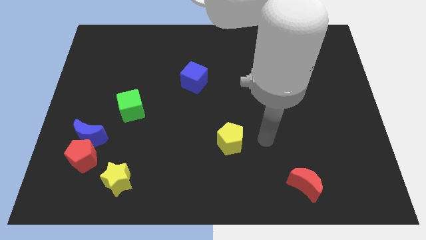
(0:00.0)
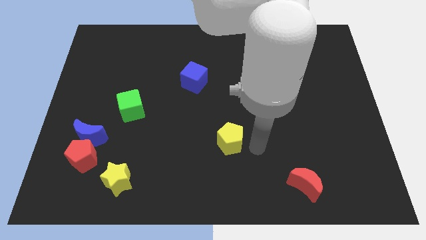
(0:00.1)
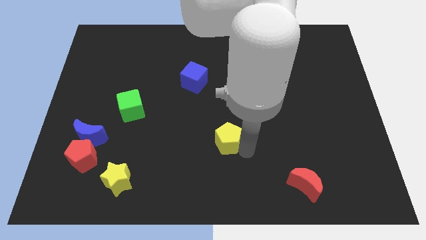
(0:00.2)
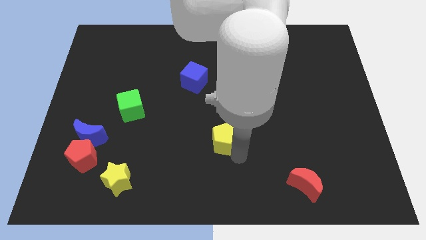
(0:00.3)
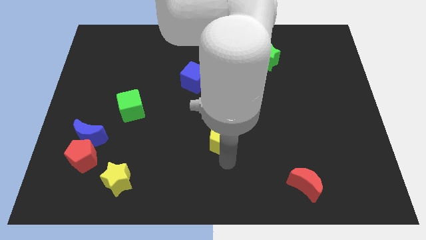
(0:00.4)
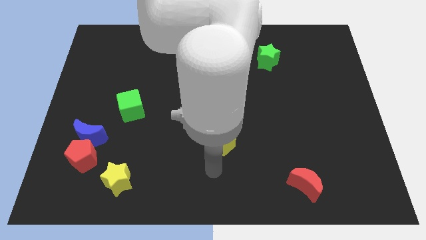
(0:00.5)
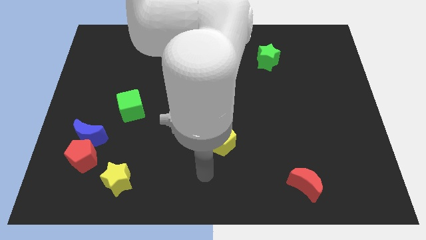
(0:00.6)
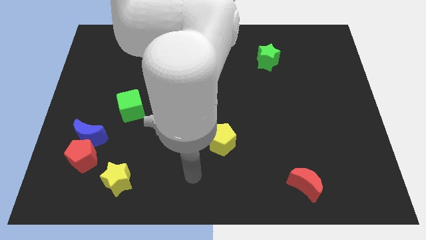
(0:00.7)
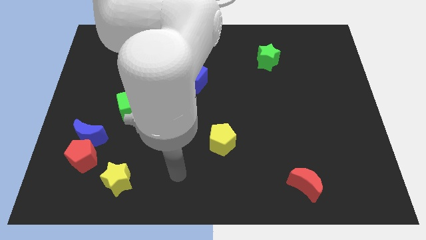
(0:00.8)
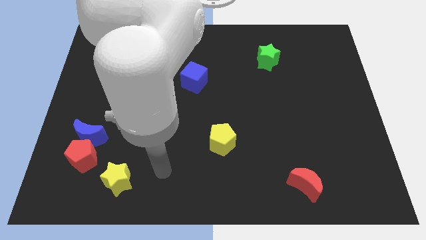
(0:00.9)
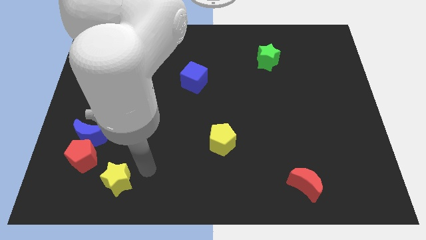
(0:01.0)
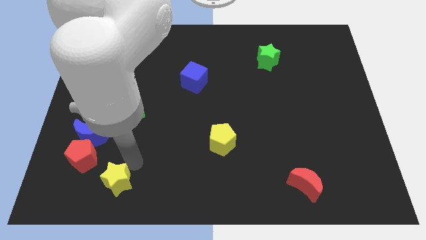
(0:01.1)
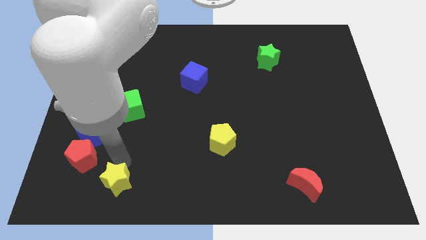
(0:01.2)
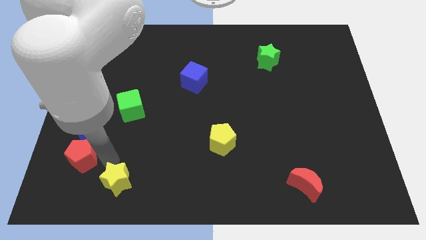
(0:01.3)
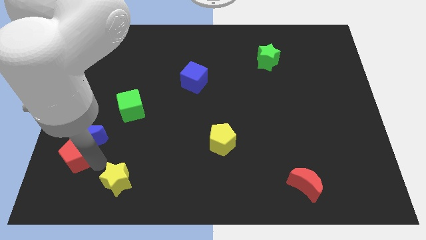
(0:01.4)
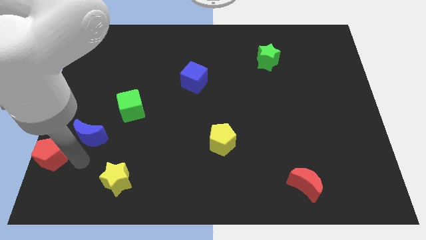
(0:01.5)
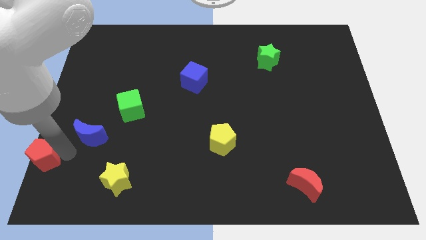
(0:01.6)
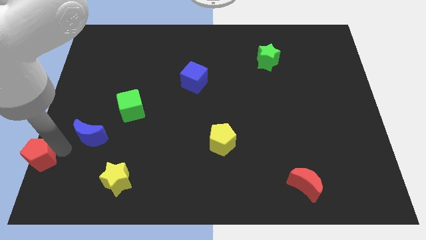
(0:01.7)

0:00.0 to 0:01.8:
pull the blue moon apart from the red pentagon

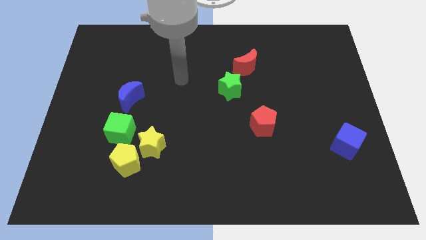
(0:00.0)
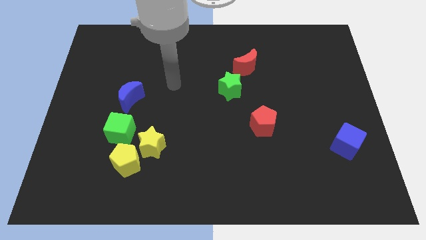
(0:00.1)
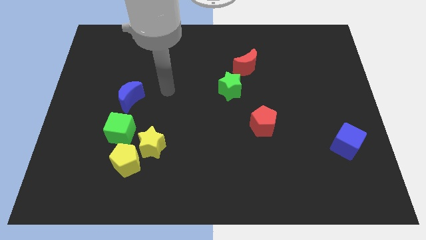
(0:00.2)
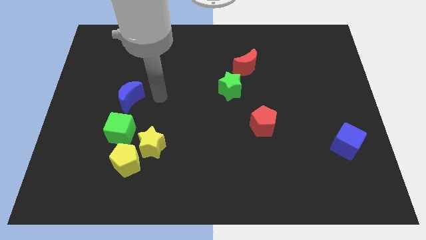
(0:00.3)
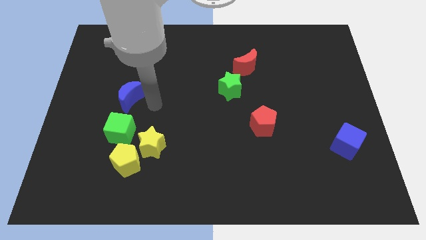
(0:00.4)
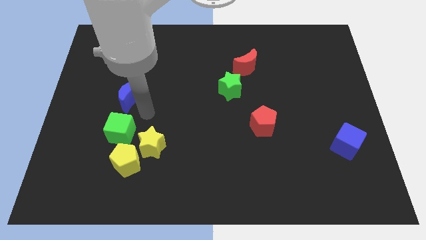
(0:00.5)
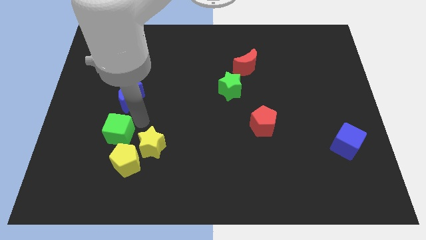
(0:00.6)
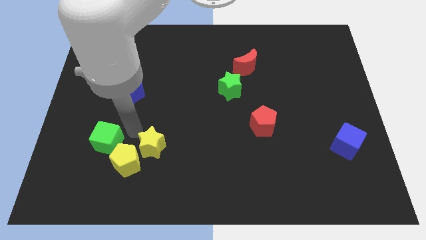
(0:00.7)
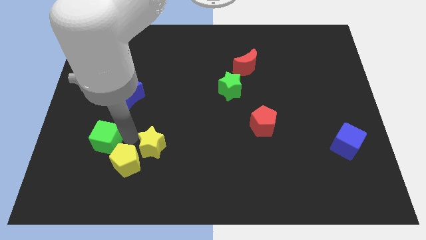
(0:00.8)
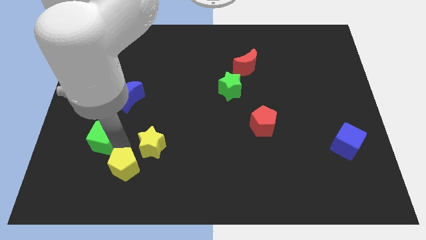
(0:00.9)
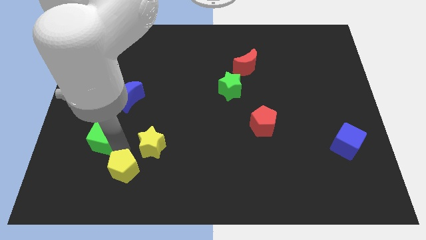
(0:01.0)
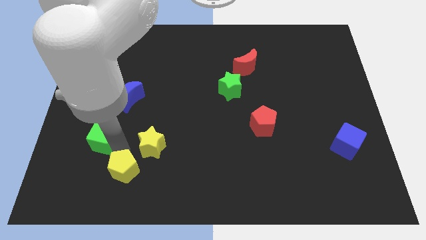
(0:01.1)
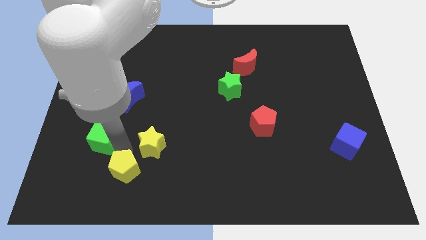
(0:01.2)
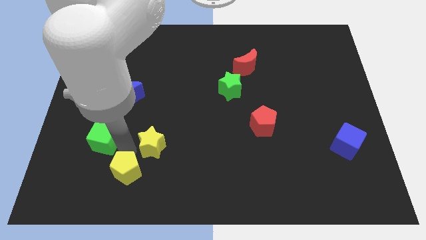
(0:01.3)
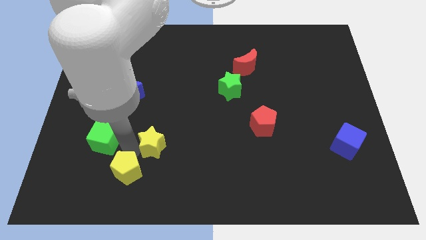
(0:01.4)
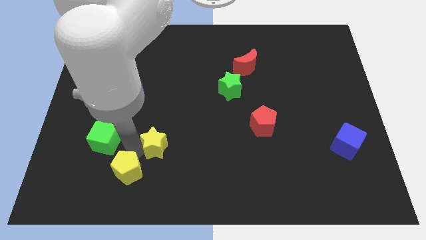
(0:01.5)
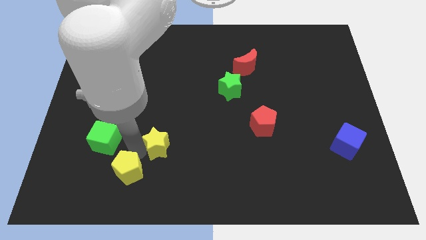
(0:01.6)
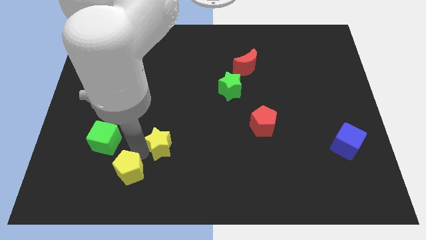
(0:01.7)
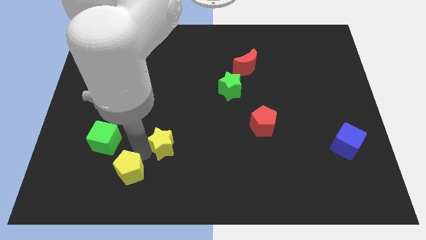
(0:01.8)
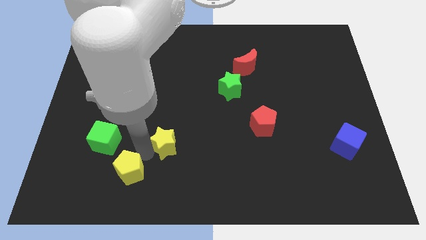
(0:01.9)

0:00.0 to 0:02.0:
separate the yellow star from the yellow pentagon and green cube

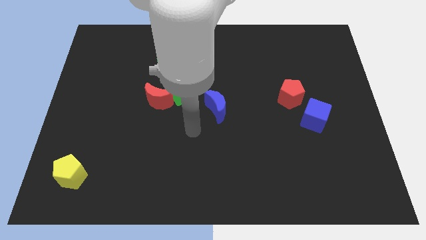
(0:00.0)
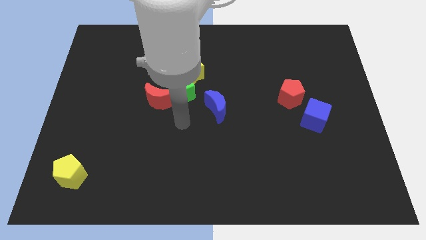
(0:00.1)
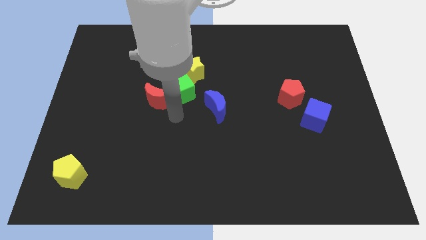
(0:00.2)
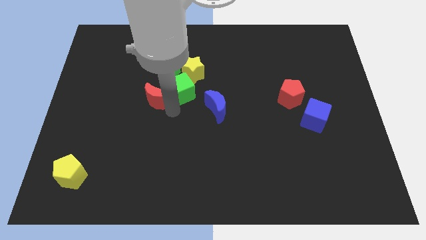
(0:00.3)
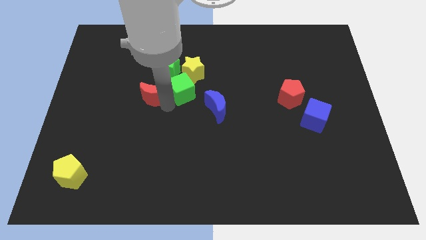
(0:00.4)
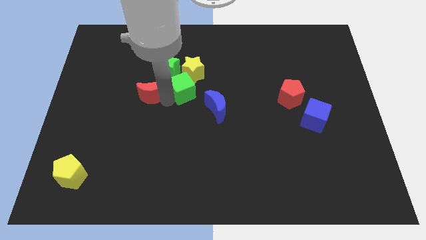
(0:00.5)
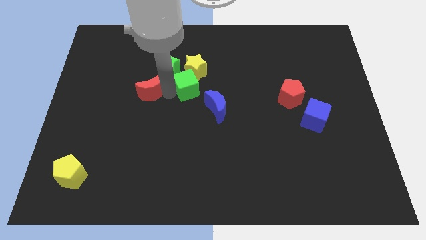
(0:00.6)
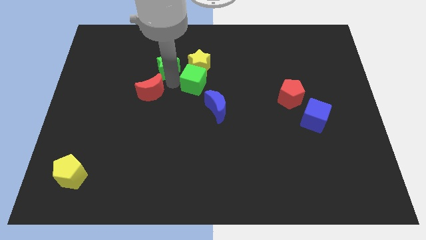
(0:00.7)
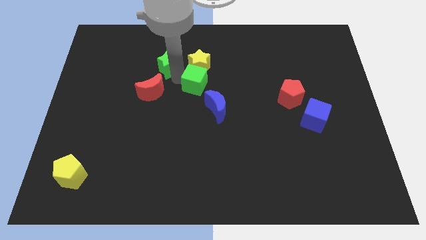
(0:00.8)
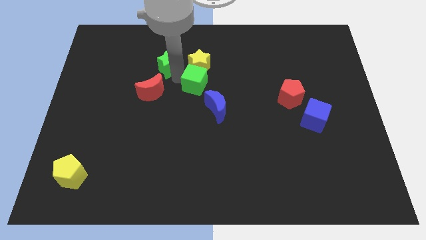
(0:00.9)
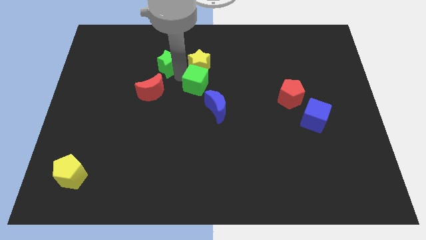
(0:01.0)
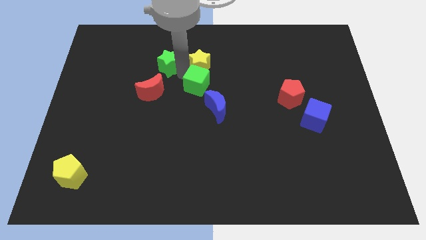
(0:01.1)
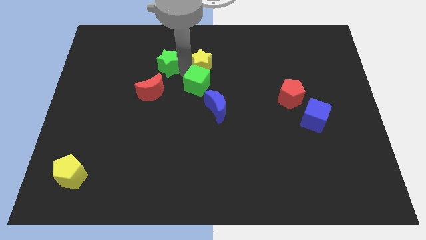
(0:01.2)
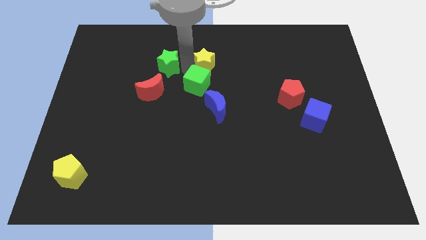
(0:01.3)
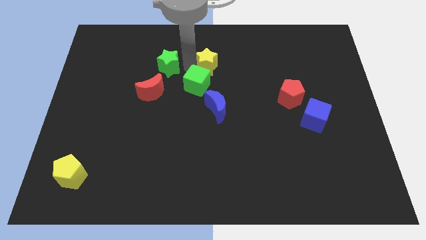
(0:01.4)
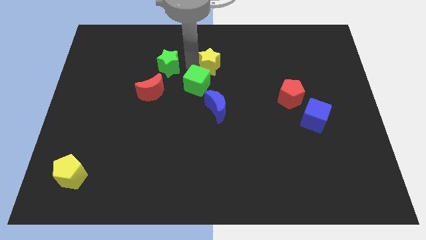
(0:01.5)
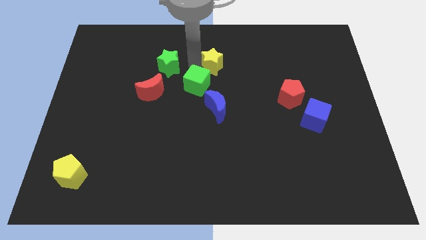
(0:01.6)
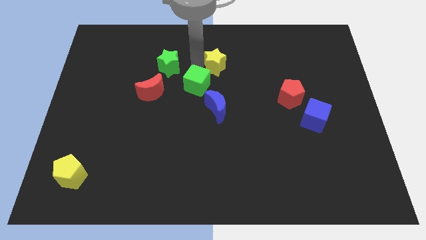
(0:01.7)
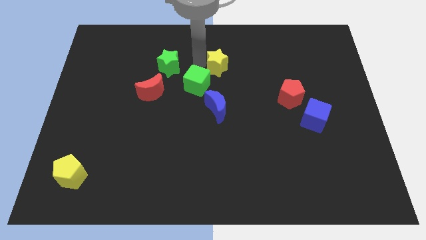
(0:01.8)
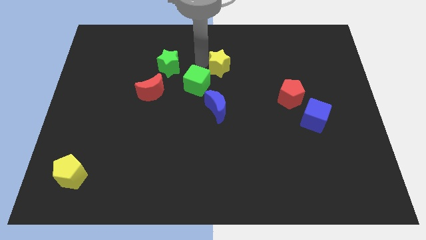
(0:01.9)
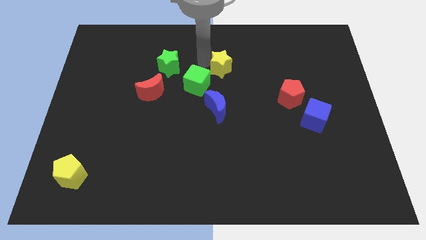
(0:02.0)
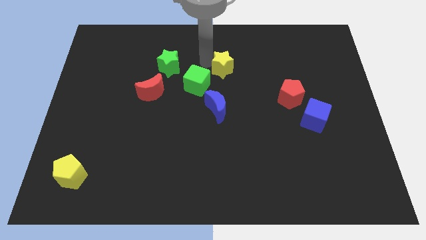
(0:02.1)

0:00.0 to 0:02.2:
separate the yellow star from the green star and green cube

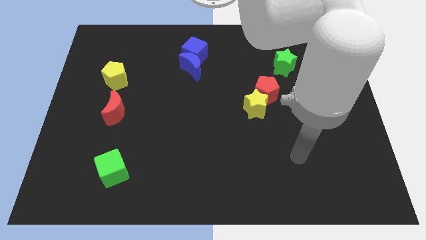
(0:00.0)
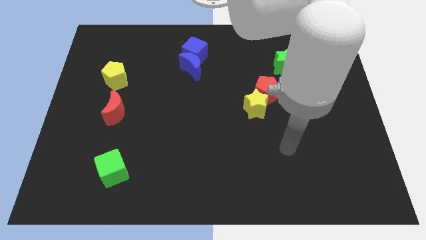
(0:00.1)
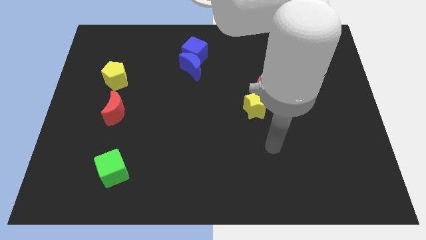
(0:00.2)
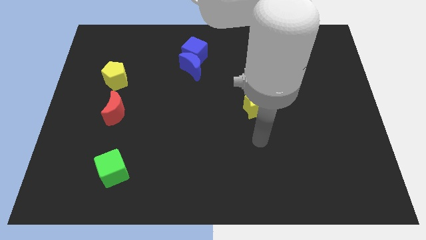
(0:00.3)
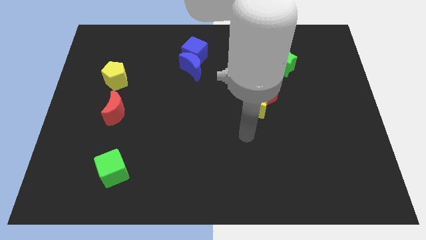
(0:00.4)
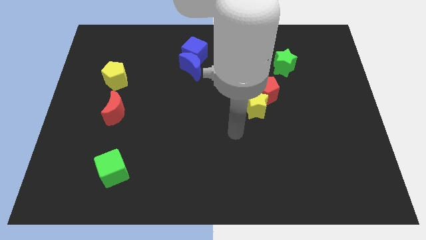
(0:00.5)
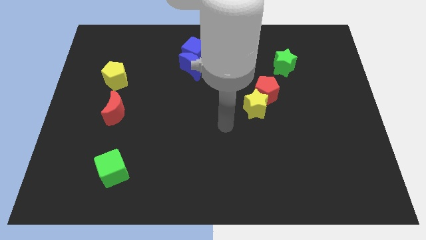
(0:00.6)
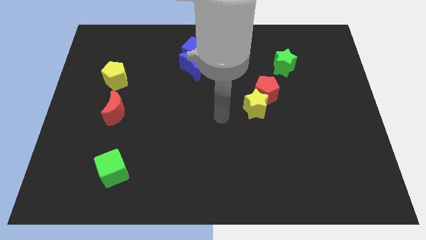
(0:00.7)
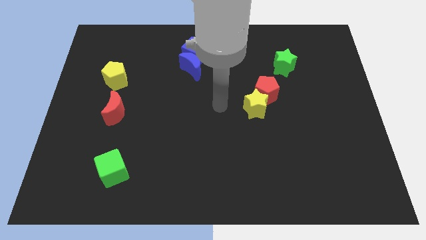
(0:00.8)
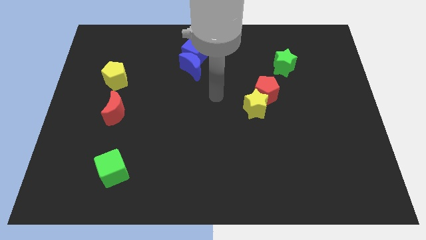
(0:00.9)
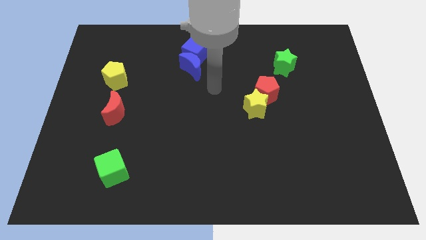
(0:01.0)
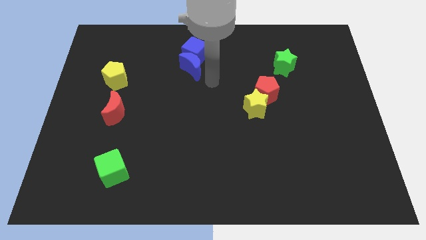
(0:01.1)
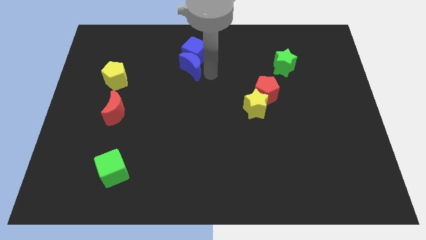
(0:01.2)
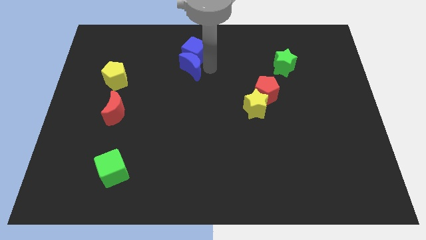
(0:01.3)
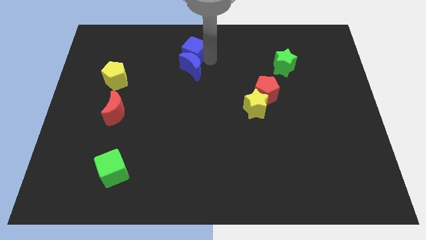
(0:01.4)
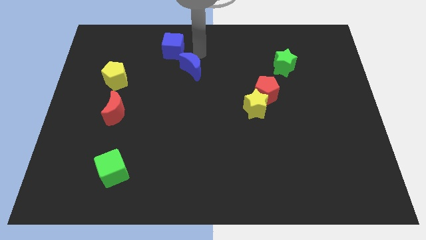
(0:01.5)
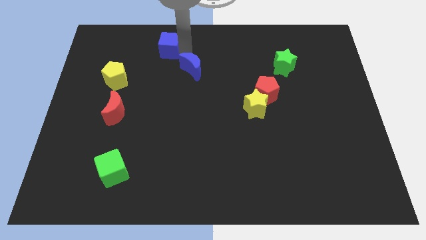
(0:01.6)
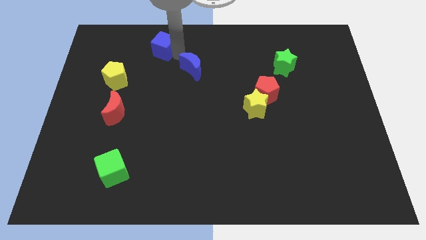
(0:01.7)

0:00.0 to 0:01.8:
pull the blue moon apart from the blue cube

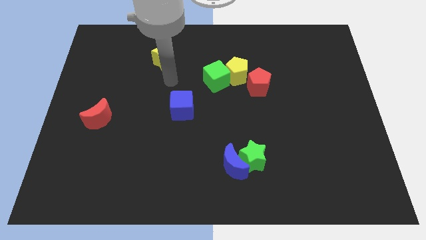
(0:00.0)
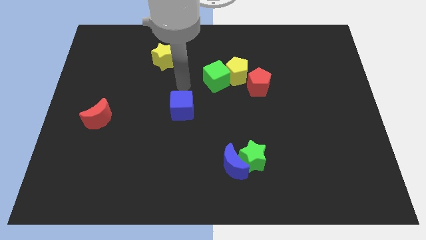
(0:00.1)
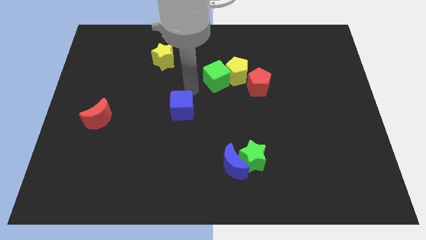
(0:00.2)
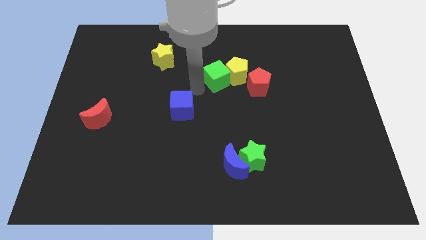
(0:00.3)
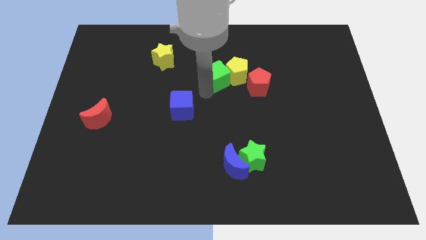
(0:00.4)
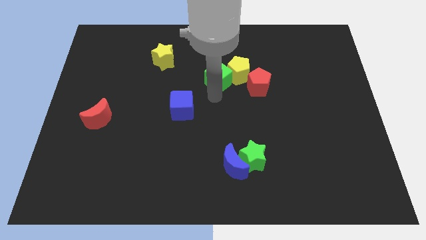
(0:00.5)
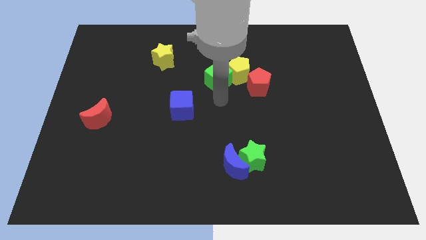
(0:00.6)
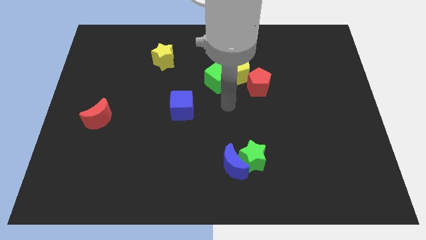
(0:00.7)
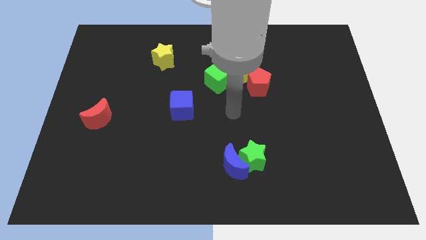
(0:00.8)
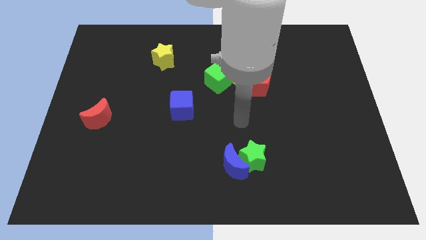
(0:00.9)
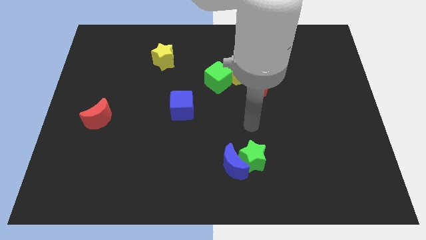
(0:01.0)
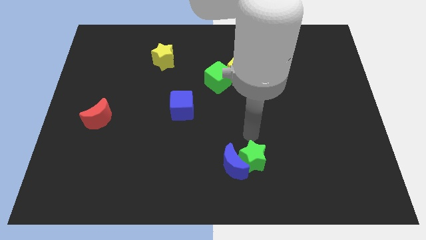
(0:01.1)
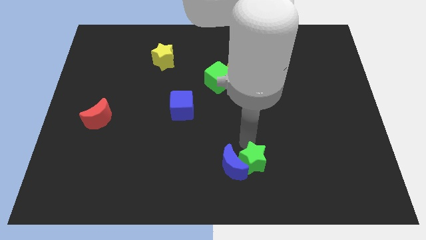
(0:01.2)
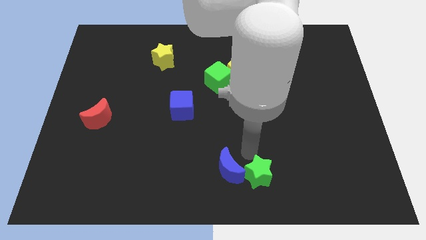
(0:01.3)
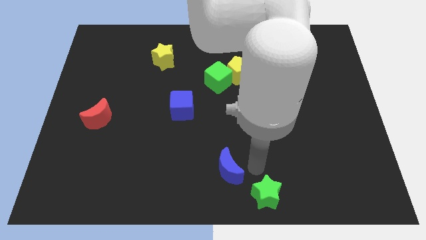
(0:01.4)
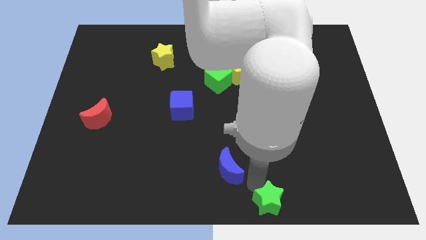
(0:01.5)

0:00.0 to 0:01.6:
move the blue moon away from the green star

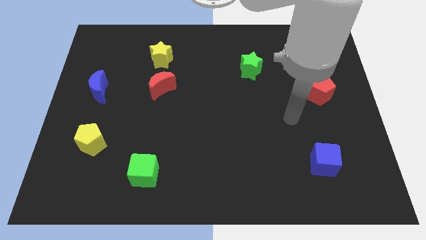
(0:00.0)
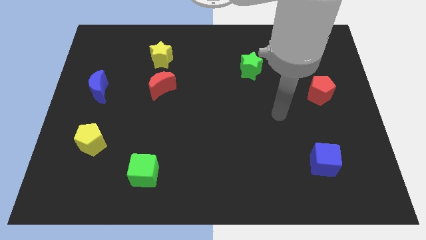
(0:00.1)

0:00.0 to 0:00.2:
separate the red moon from the yellow star
